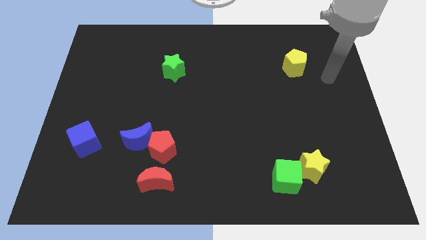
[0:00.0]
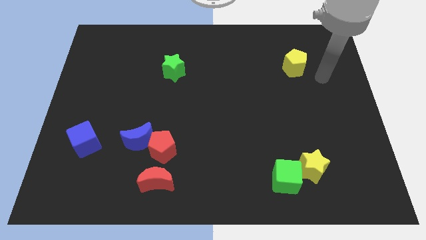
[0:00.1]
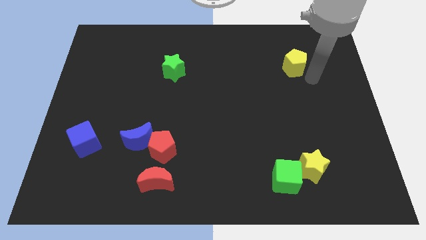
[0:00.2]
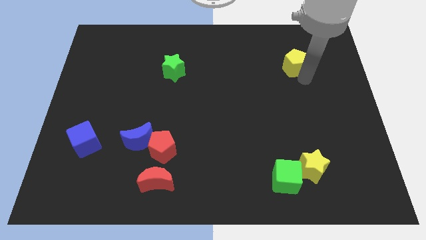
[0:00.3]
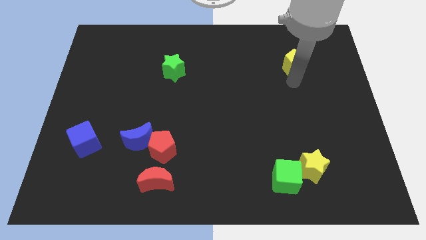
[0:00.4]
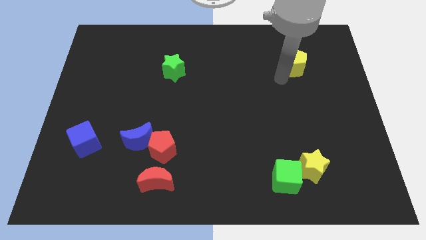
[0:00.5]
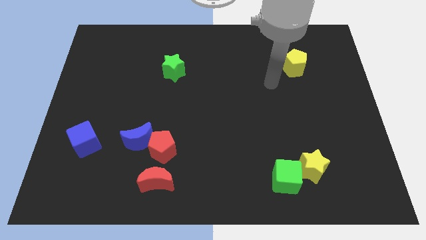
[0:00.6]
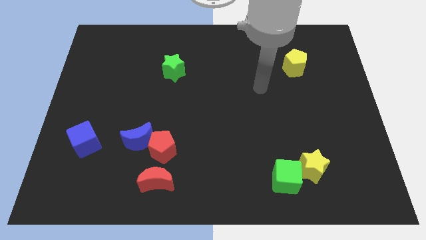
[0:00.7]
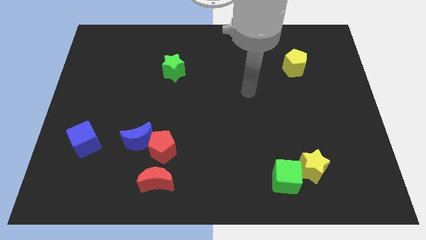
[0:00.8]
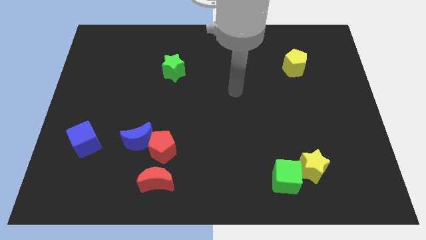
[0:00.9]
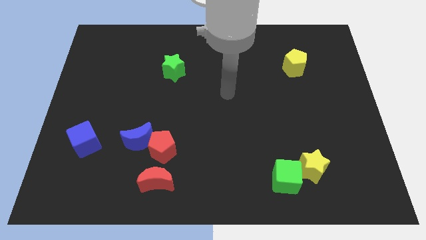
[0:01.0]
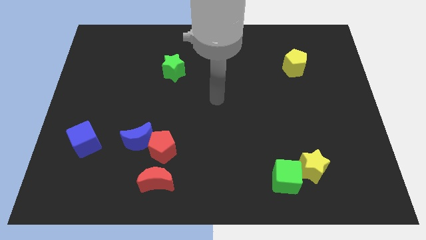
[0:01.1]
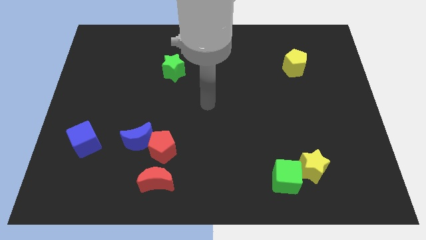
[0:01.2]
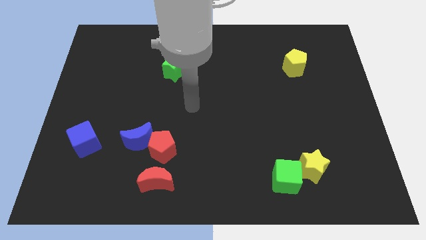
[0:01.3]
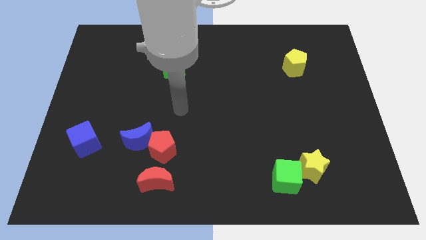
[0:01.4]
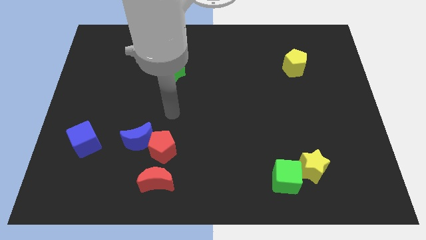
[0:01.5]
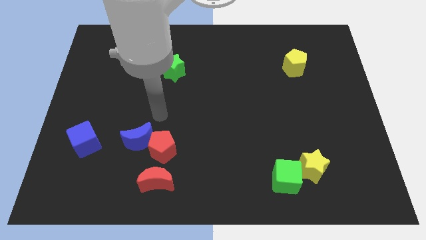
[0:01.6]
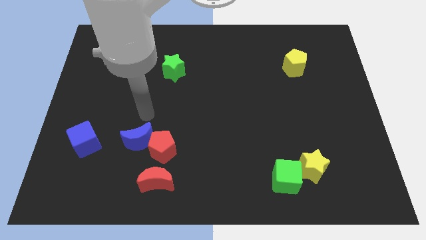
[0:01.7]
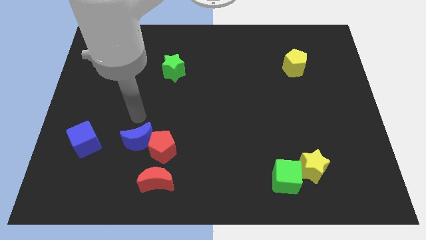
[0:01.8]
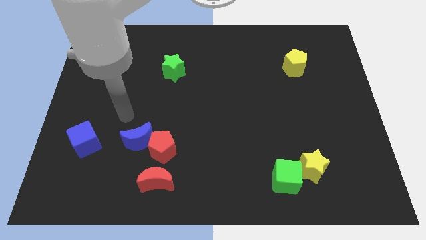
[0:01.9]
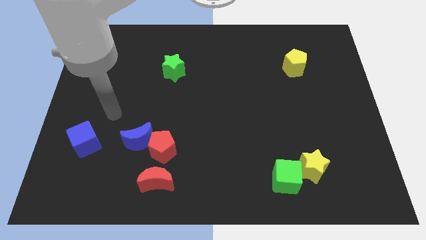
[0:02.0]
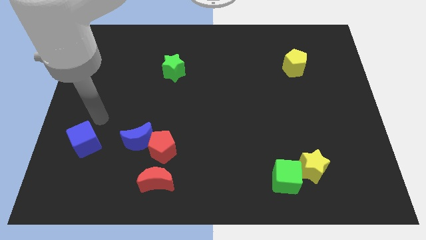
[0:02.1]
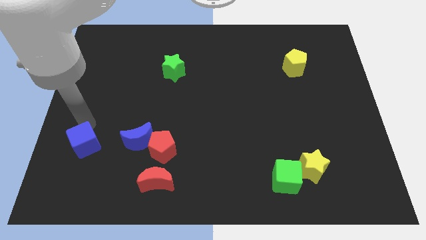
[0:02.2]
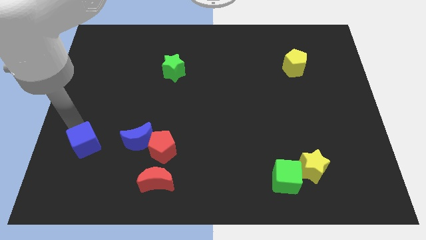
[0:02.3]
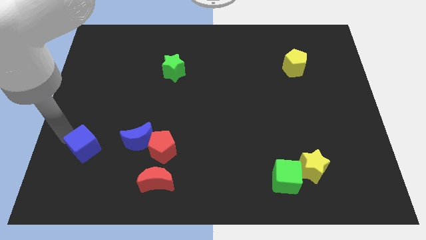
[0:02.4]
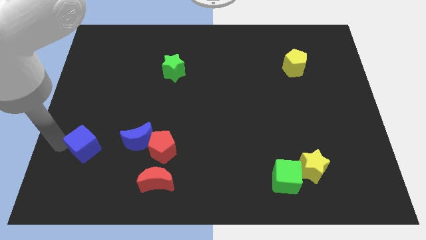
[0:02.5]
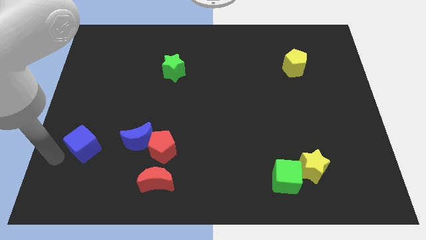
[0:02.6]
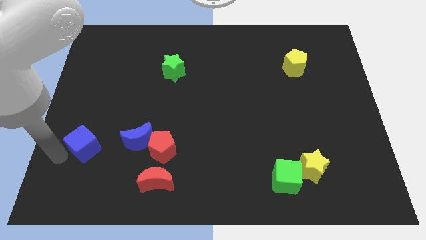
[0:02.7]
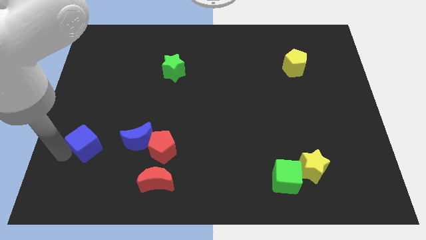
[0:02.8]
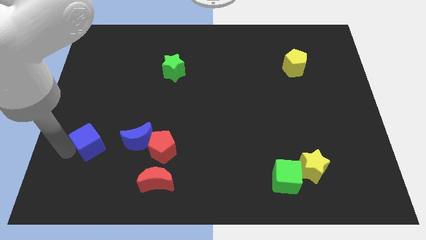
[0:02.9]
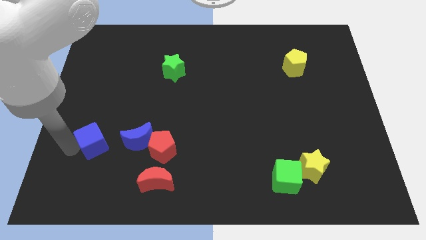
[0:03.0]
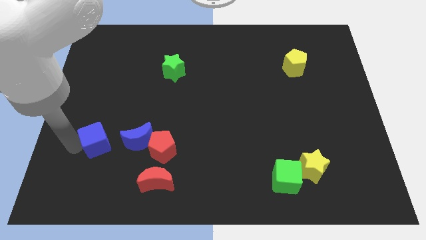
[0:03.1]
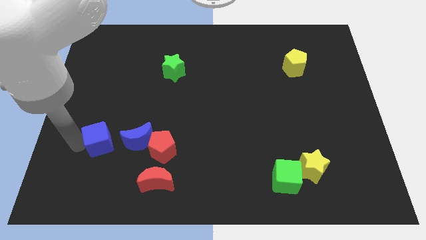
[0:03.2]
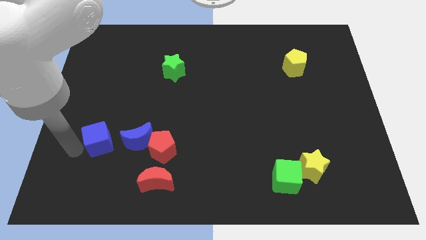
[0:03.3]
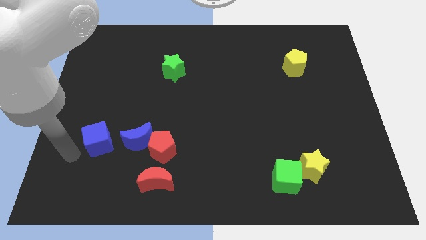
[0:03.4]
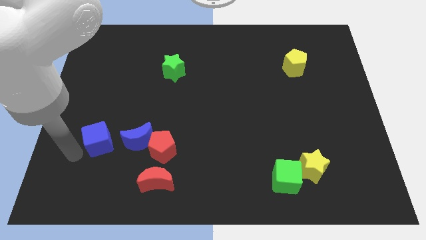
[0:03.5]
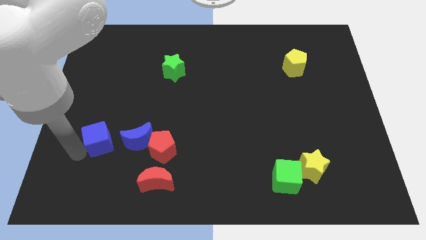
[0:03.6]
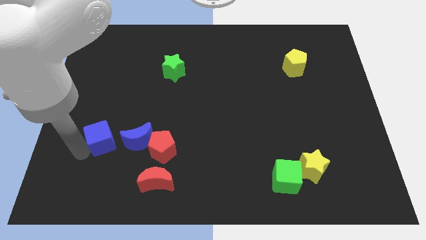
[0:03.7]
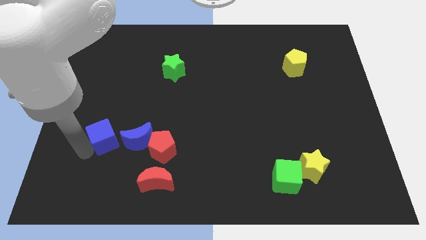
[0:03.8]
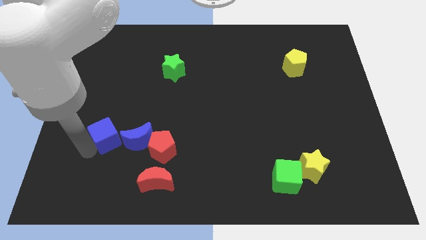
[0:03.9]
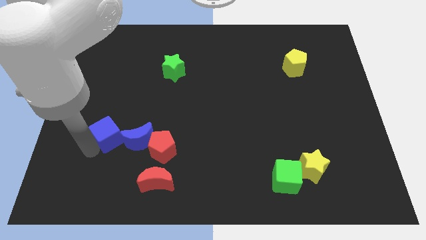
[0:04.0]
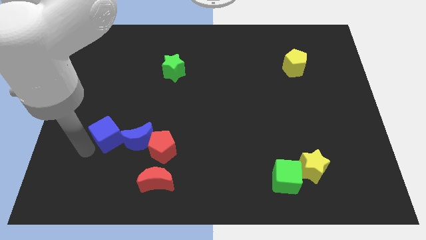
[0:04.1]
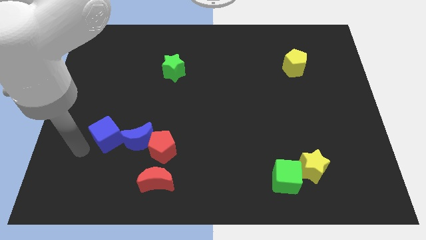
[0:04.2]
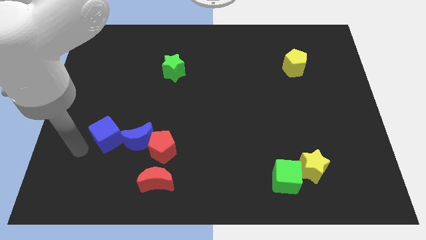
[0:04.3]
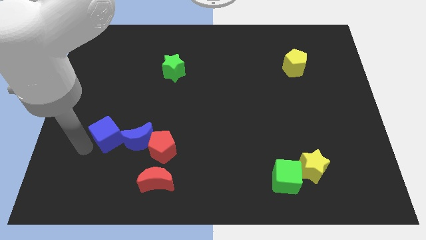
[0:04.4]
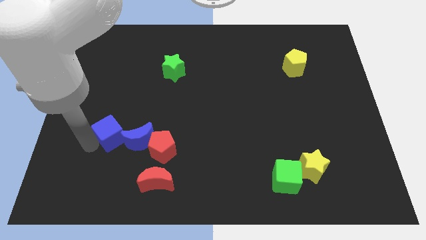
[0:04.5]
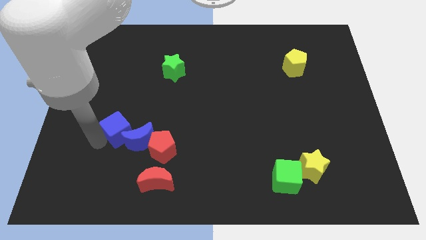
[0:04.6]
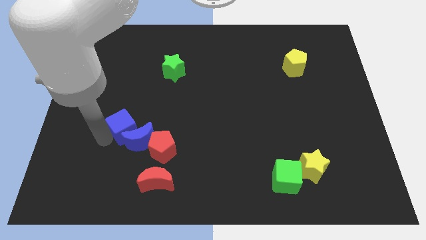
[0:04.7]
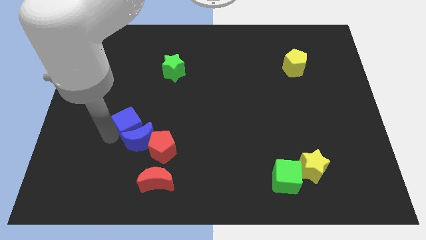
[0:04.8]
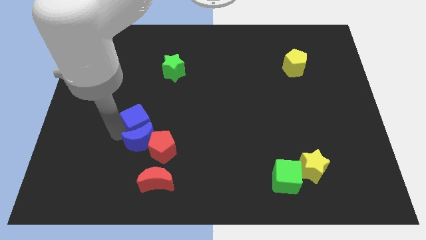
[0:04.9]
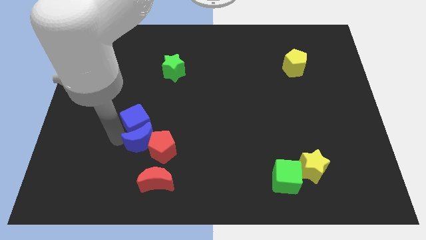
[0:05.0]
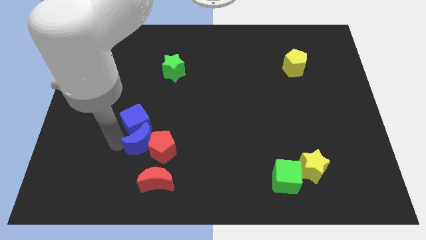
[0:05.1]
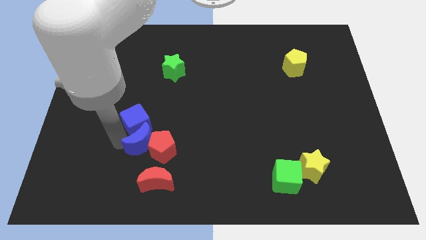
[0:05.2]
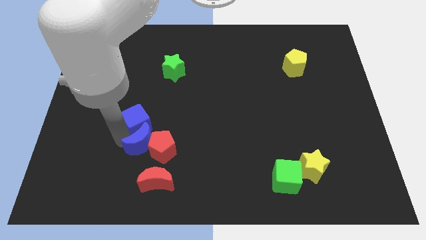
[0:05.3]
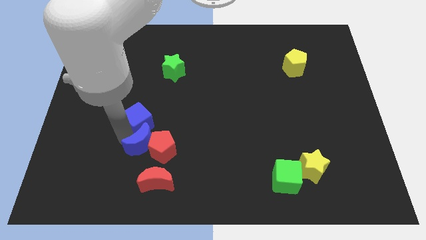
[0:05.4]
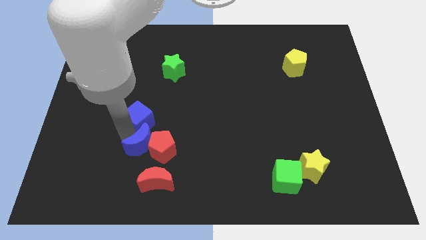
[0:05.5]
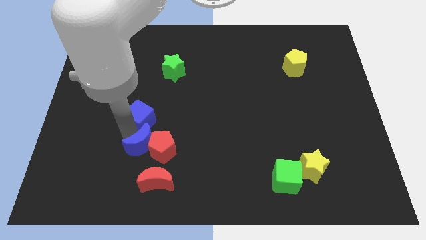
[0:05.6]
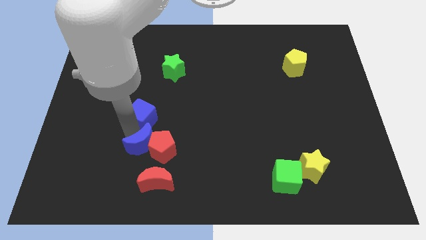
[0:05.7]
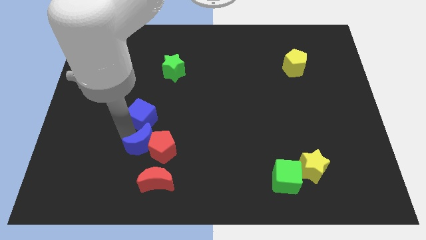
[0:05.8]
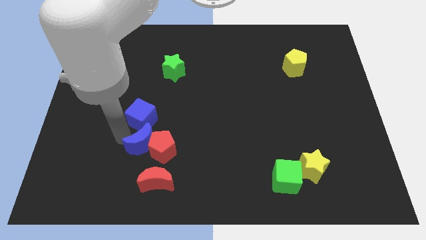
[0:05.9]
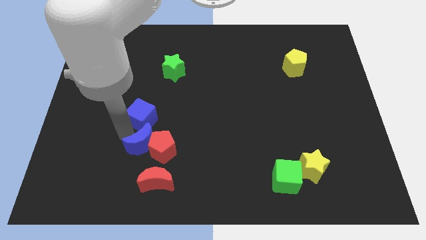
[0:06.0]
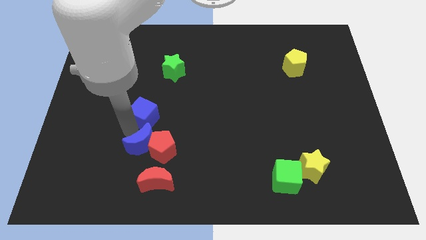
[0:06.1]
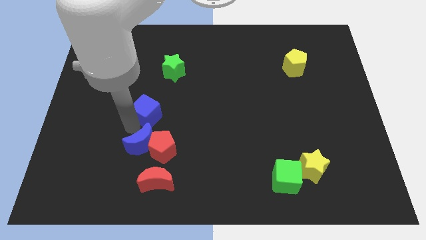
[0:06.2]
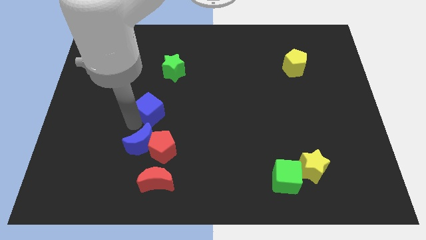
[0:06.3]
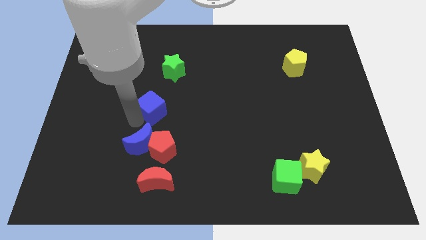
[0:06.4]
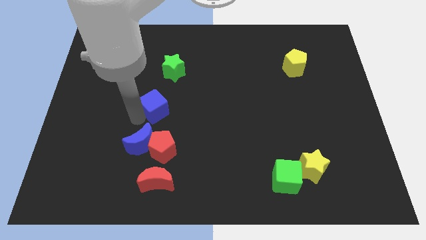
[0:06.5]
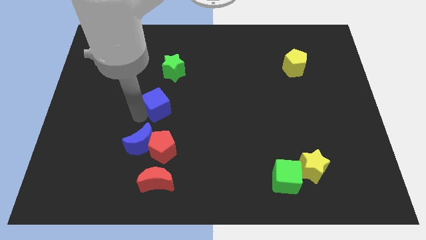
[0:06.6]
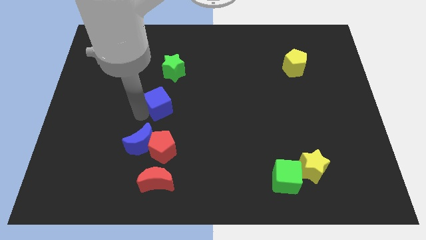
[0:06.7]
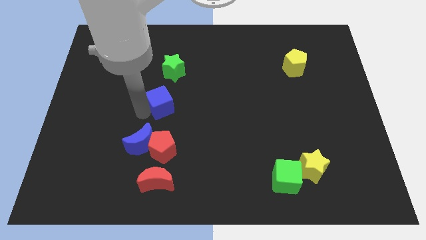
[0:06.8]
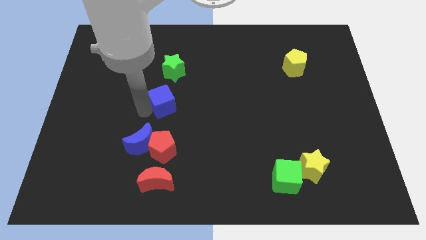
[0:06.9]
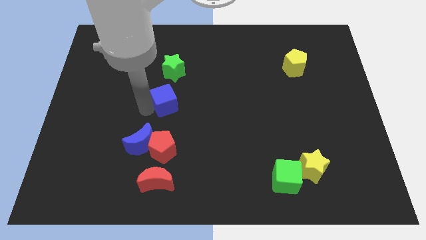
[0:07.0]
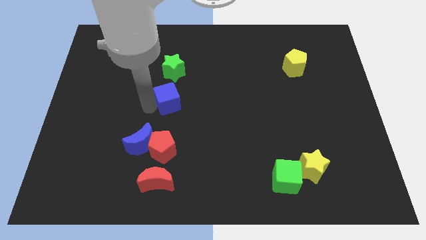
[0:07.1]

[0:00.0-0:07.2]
push the blue cube upwards and right

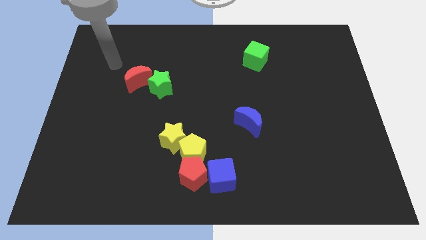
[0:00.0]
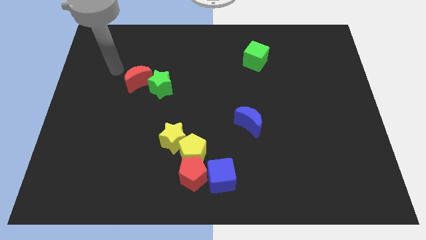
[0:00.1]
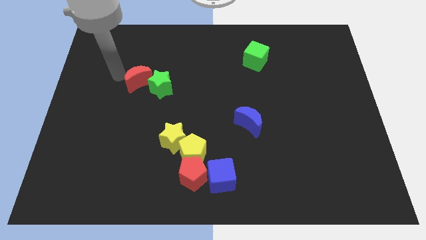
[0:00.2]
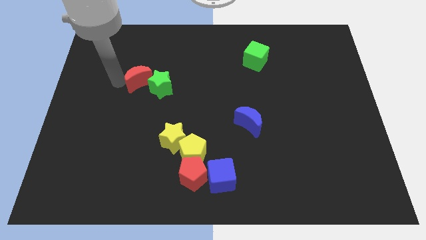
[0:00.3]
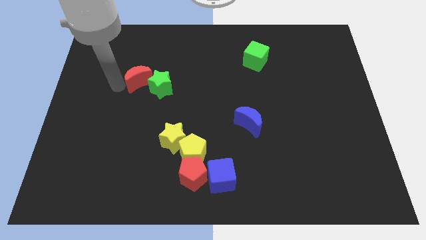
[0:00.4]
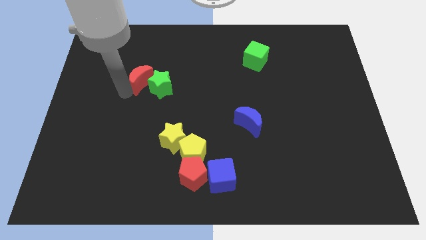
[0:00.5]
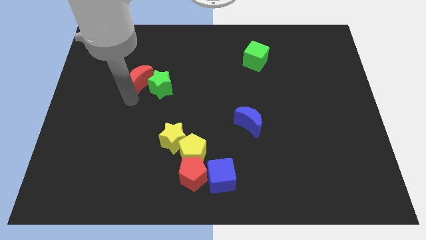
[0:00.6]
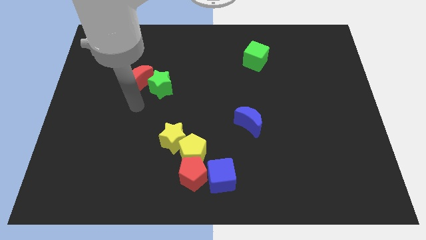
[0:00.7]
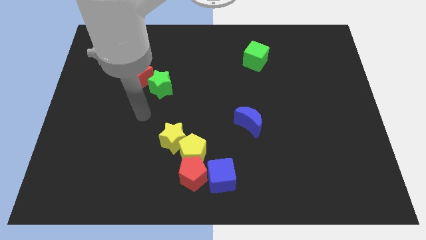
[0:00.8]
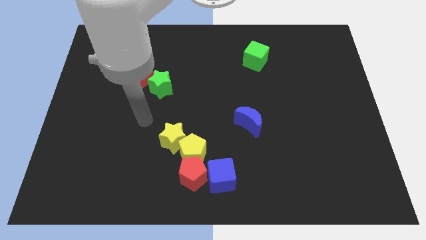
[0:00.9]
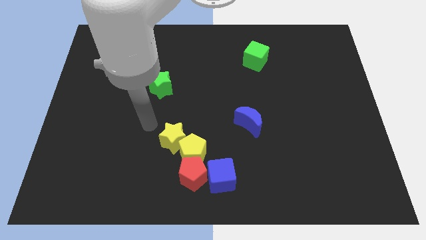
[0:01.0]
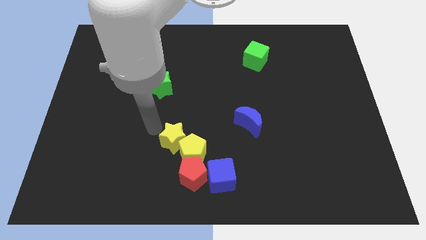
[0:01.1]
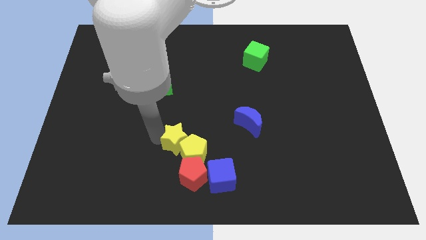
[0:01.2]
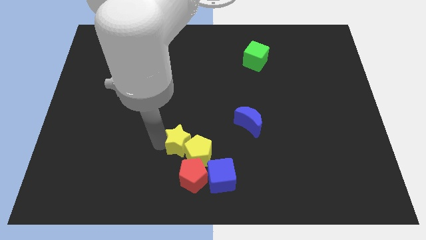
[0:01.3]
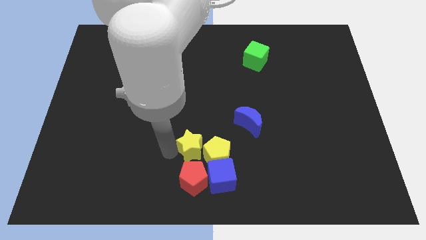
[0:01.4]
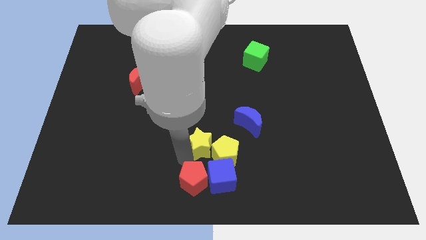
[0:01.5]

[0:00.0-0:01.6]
move the yellow pentagon somewhat to the right
